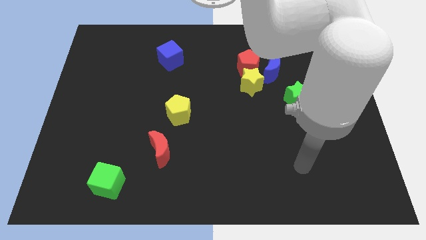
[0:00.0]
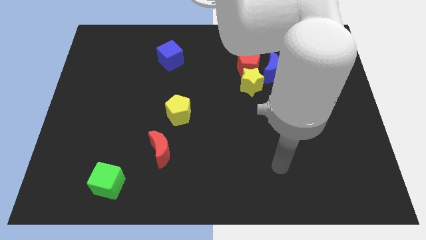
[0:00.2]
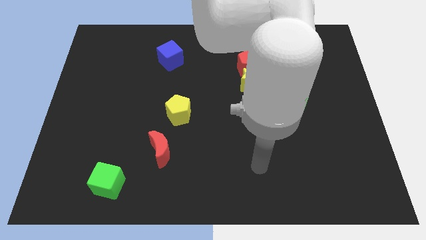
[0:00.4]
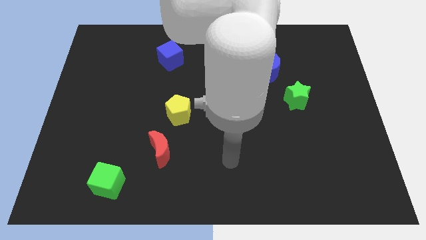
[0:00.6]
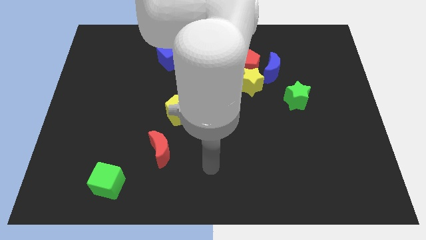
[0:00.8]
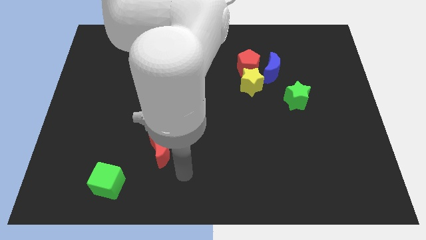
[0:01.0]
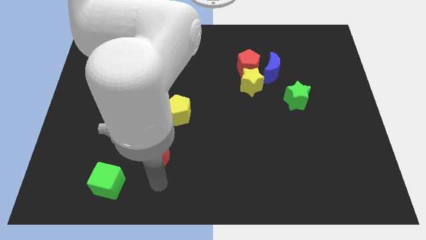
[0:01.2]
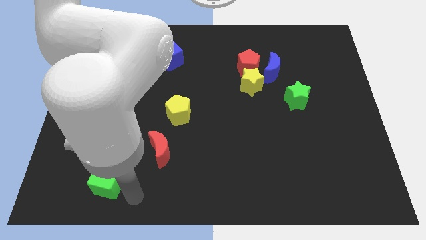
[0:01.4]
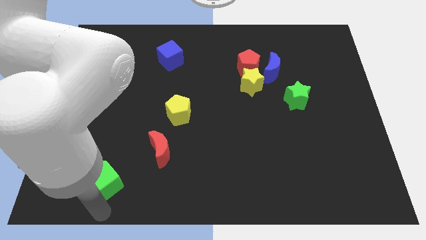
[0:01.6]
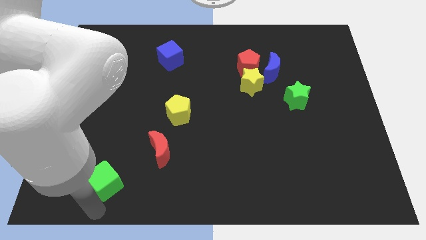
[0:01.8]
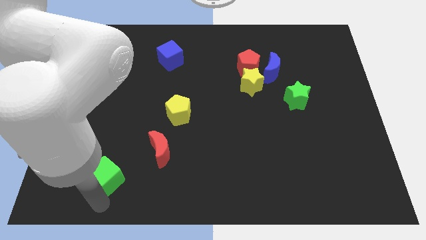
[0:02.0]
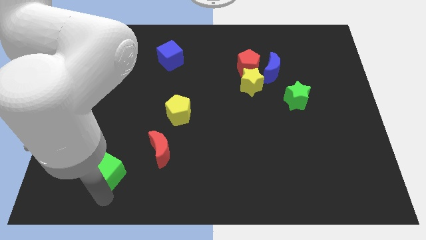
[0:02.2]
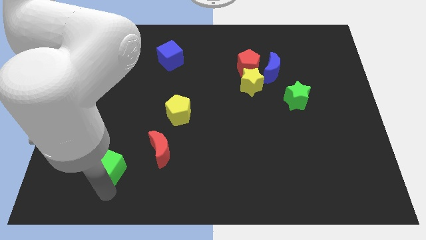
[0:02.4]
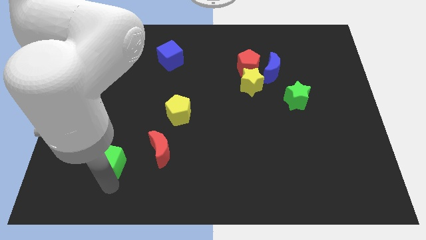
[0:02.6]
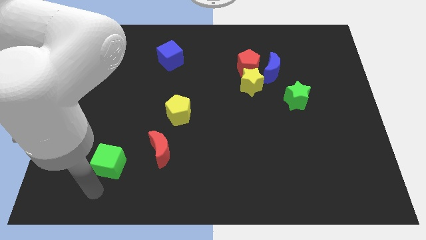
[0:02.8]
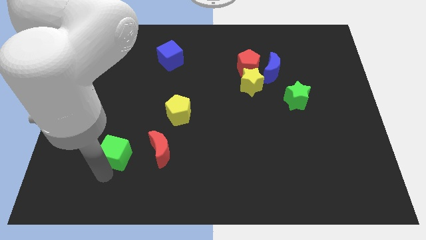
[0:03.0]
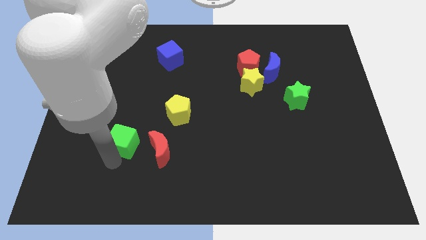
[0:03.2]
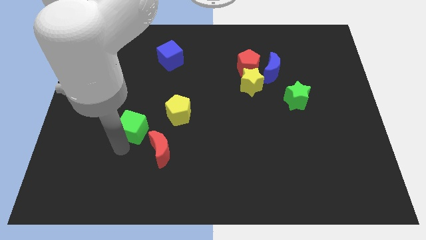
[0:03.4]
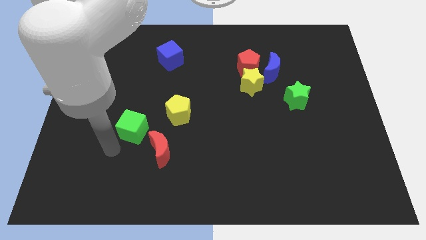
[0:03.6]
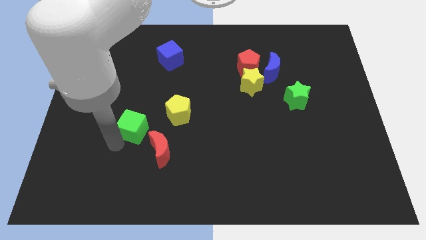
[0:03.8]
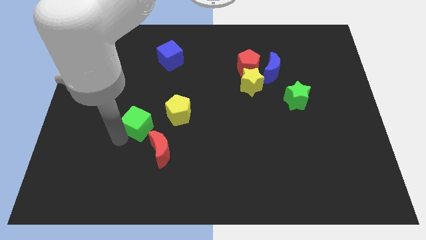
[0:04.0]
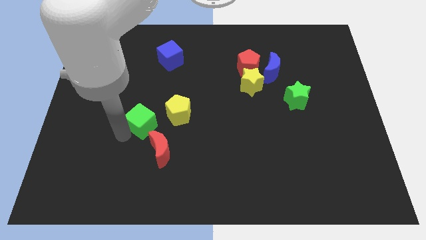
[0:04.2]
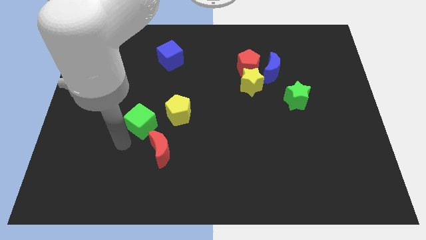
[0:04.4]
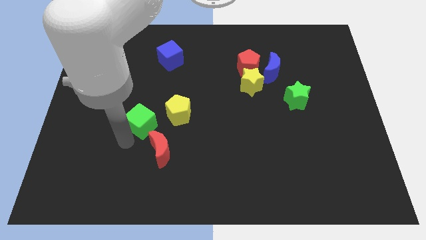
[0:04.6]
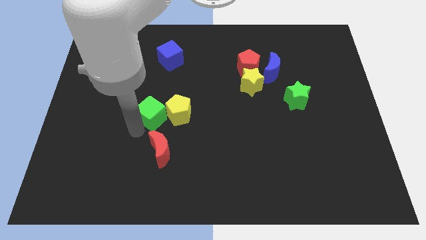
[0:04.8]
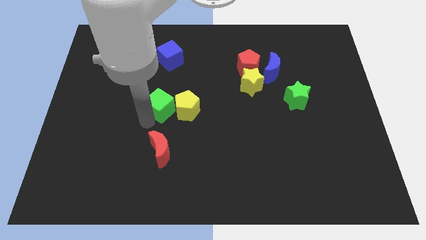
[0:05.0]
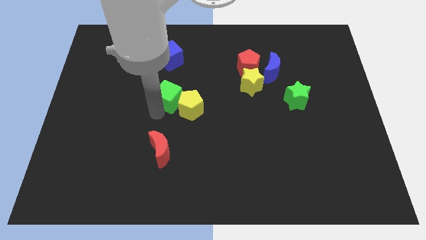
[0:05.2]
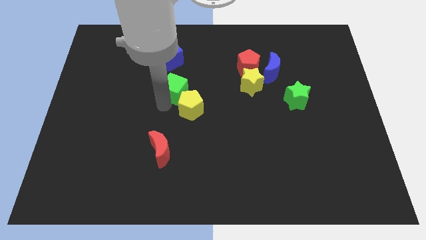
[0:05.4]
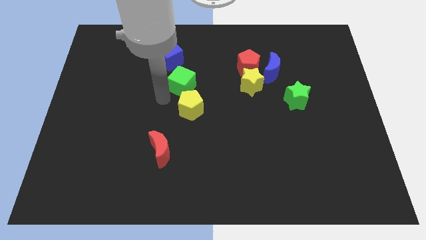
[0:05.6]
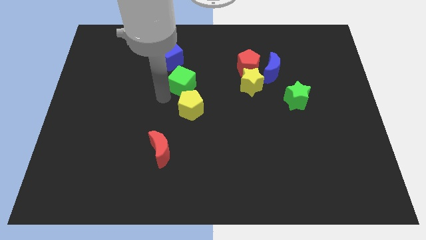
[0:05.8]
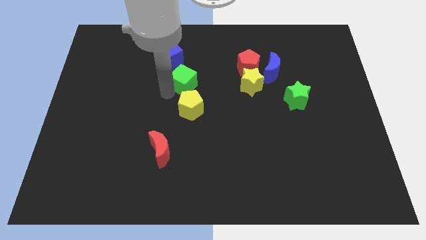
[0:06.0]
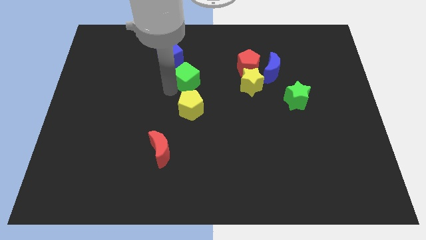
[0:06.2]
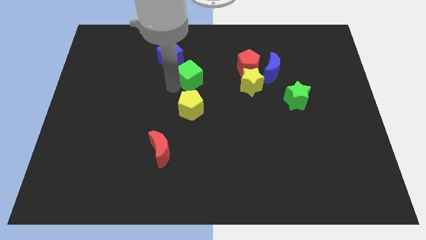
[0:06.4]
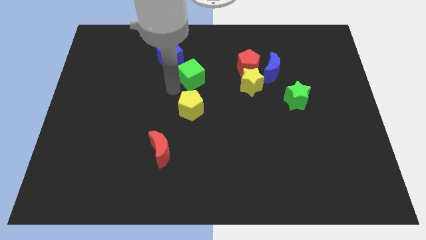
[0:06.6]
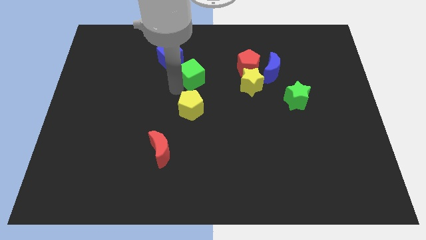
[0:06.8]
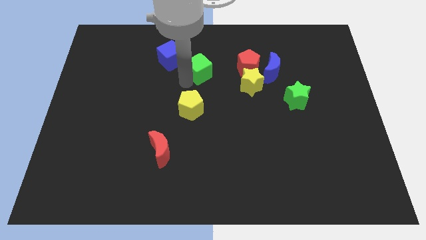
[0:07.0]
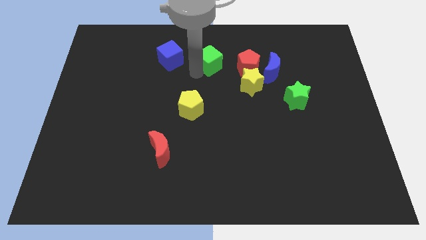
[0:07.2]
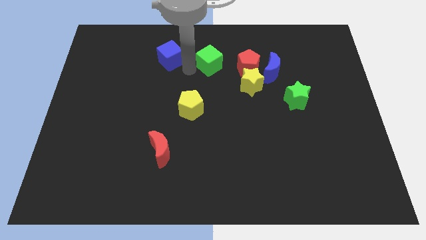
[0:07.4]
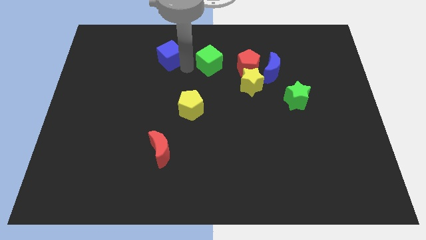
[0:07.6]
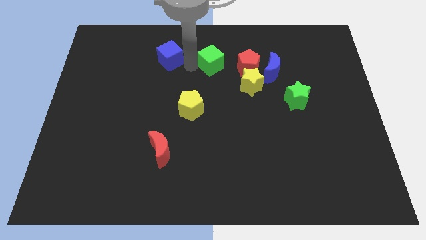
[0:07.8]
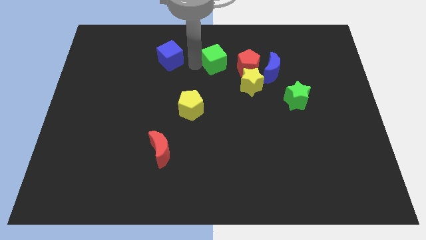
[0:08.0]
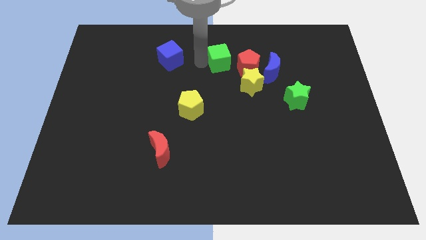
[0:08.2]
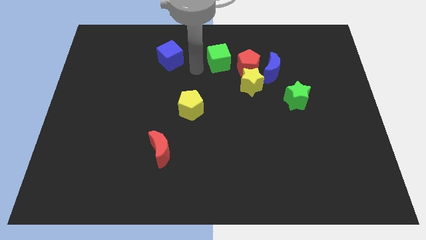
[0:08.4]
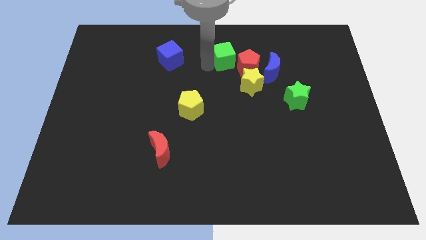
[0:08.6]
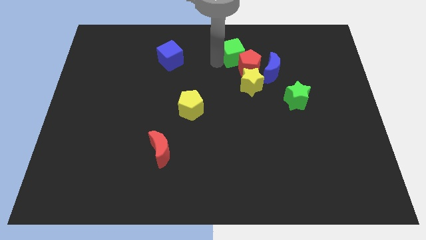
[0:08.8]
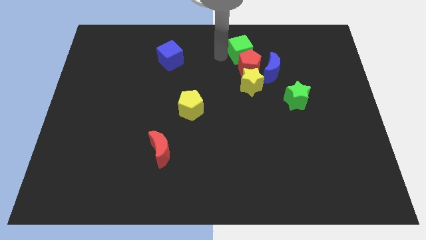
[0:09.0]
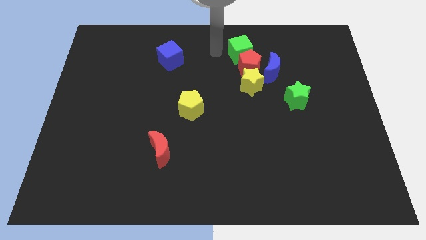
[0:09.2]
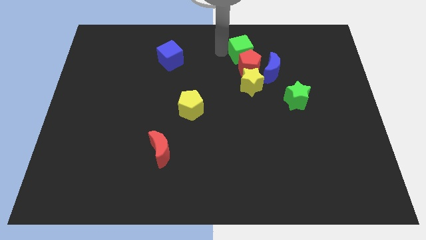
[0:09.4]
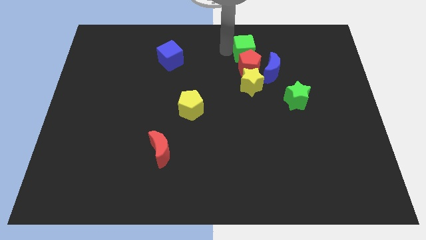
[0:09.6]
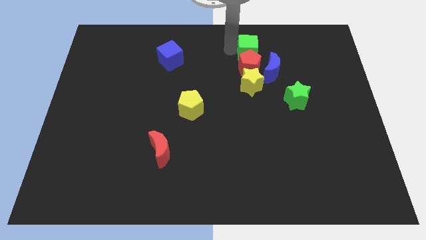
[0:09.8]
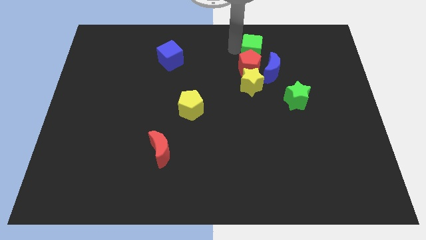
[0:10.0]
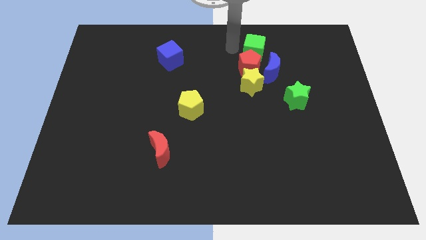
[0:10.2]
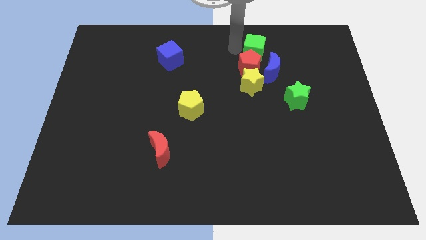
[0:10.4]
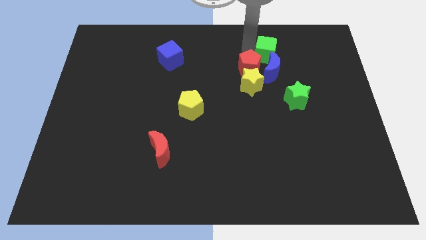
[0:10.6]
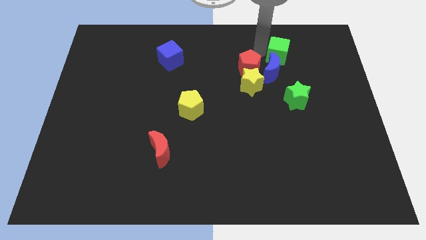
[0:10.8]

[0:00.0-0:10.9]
slide the green cube to the top of the green star

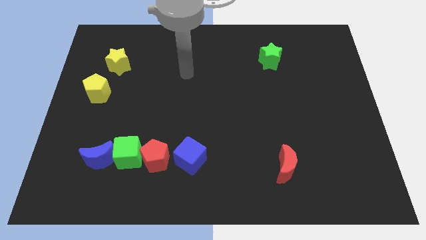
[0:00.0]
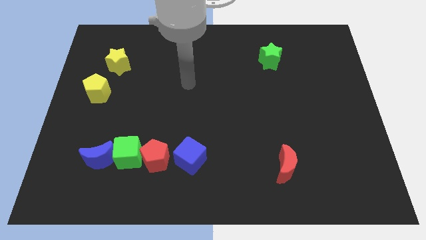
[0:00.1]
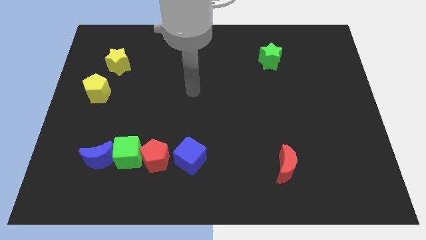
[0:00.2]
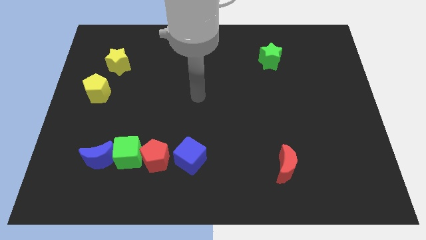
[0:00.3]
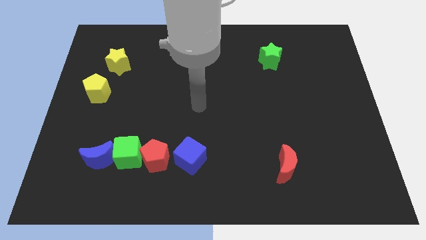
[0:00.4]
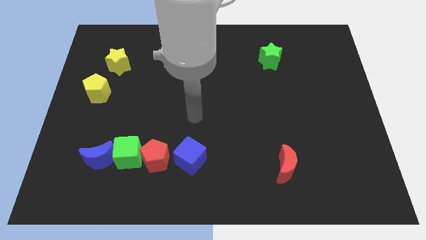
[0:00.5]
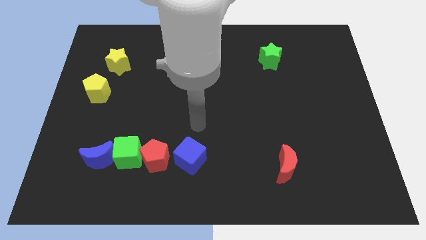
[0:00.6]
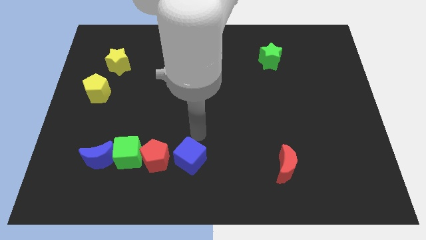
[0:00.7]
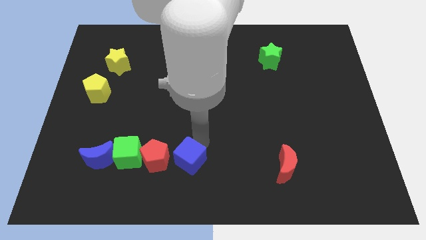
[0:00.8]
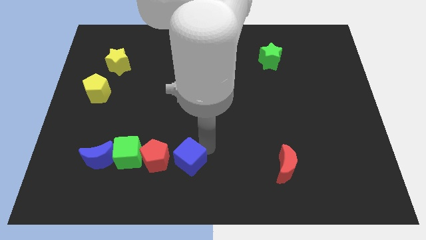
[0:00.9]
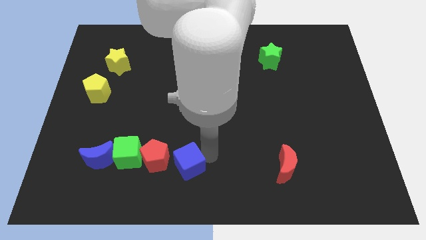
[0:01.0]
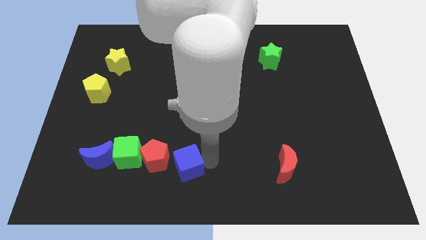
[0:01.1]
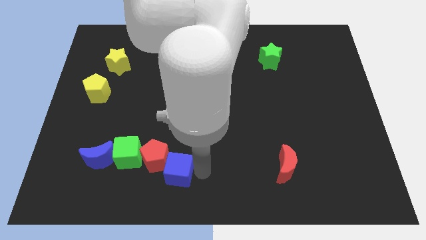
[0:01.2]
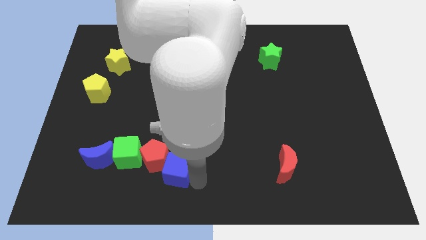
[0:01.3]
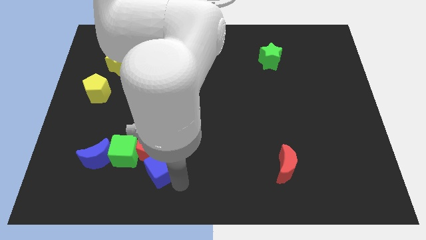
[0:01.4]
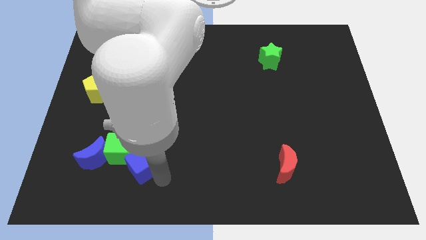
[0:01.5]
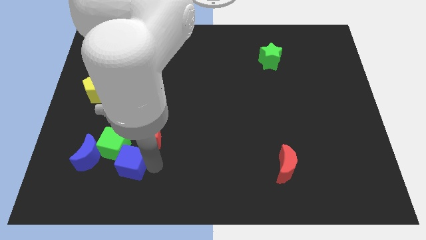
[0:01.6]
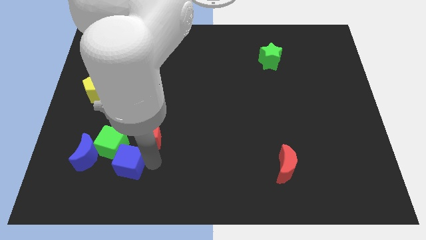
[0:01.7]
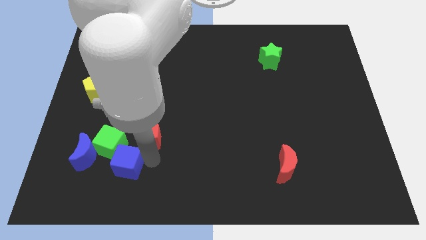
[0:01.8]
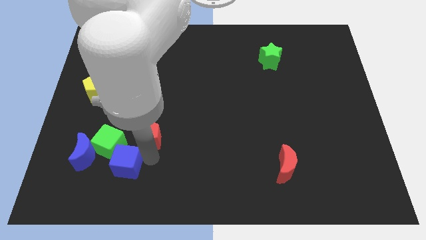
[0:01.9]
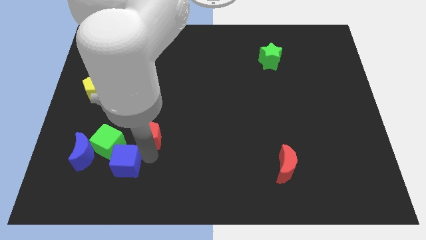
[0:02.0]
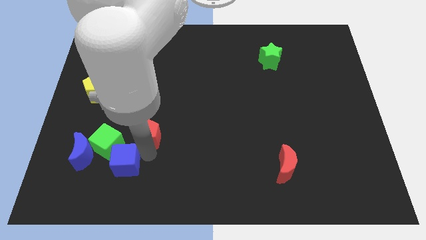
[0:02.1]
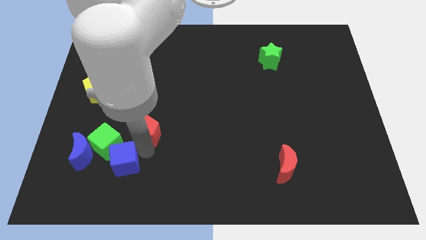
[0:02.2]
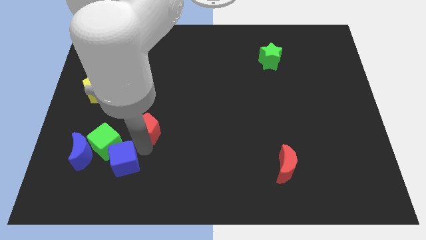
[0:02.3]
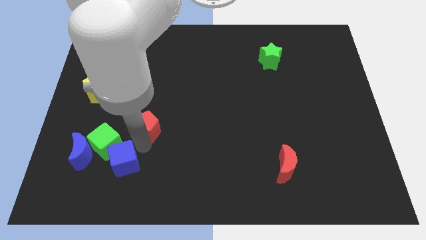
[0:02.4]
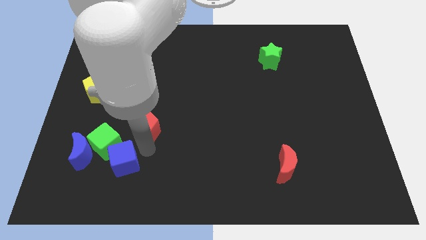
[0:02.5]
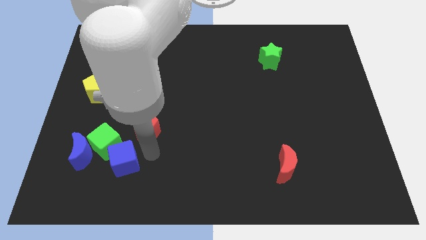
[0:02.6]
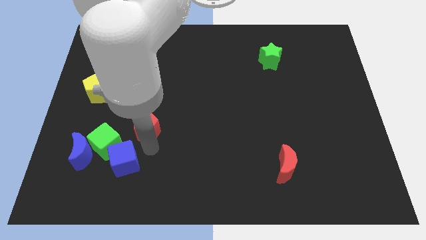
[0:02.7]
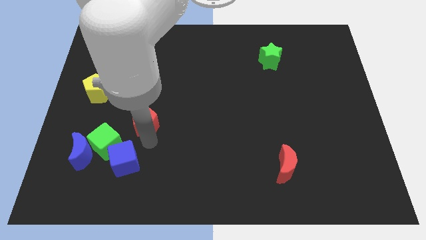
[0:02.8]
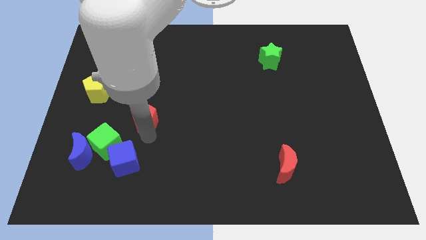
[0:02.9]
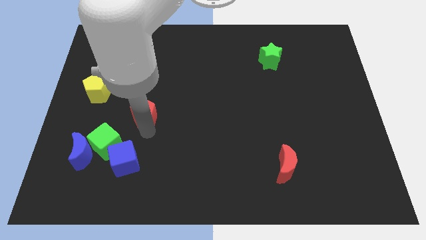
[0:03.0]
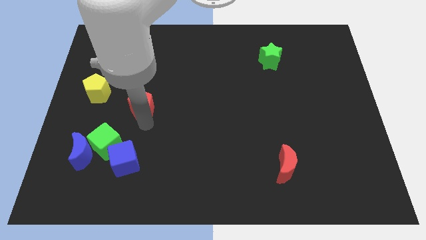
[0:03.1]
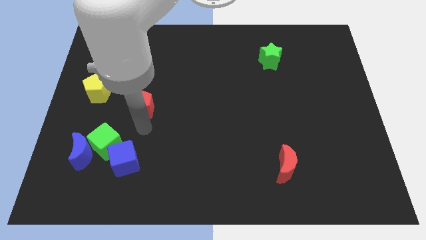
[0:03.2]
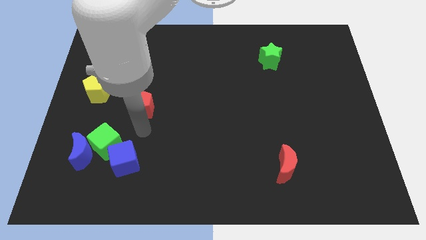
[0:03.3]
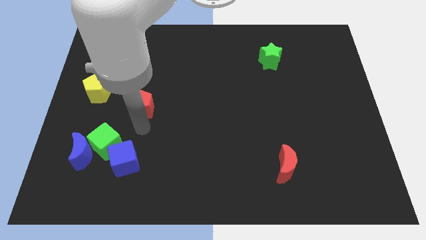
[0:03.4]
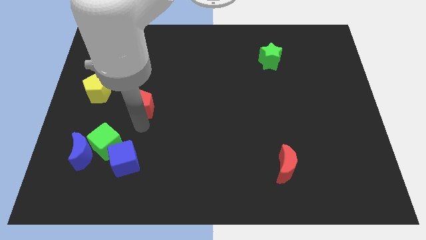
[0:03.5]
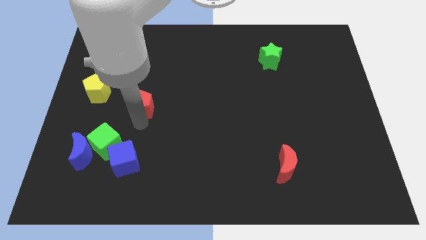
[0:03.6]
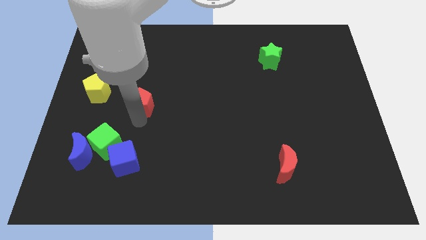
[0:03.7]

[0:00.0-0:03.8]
push the red pentagon to the right side of the yellow pentagon
